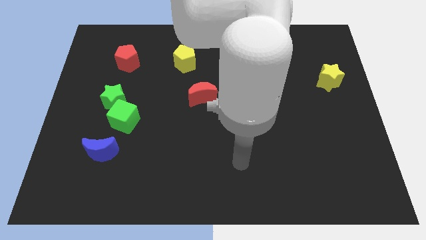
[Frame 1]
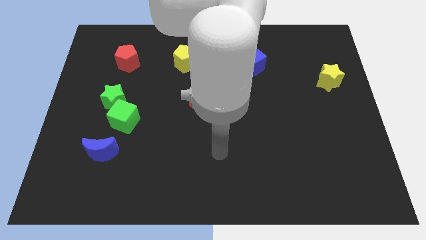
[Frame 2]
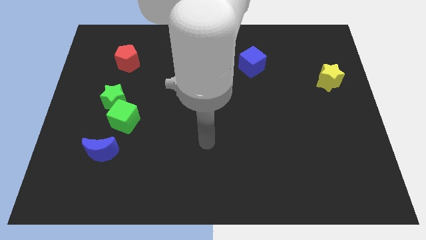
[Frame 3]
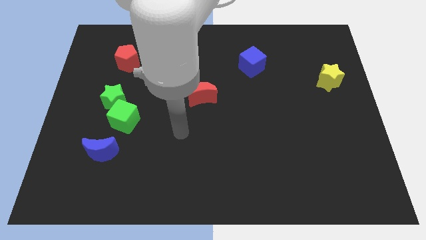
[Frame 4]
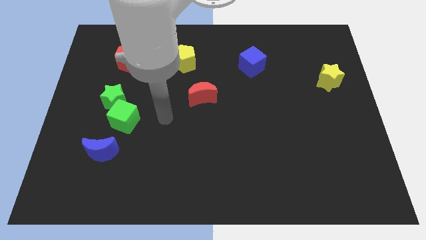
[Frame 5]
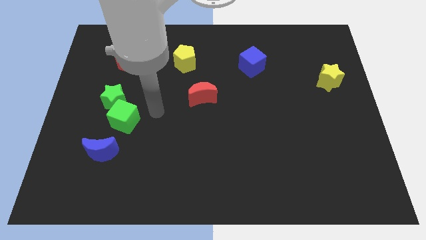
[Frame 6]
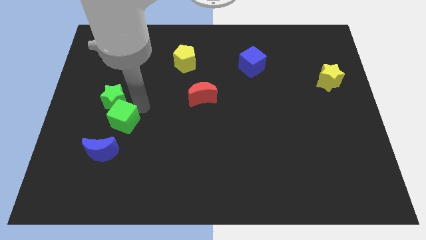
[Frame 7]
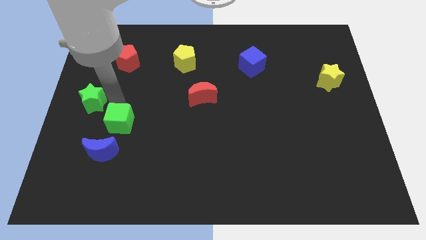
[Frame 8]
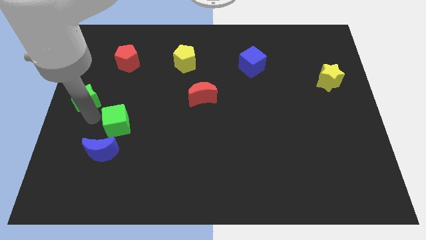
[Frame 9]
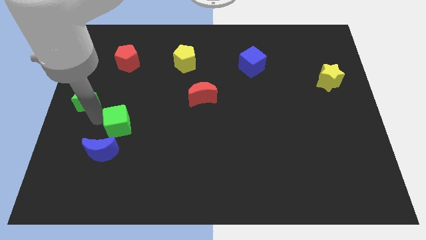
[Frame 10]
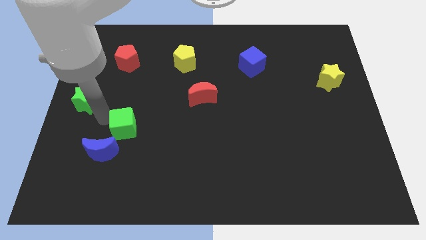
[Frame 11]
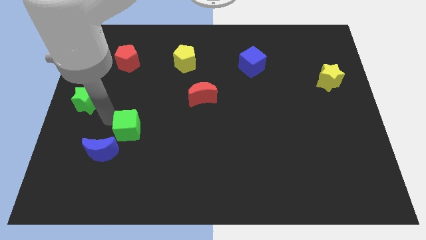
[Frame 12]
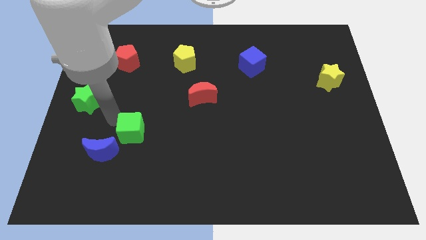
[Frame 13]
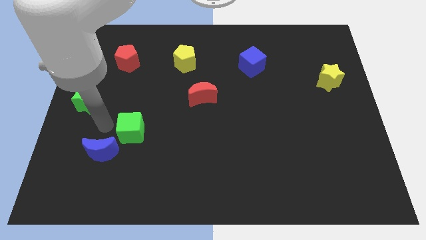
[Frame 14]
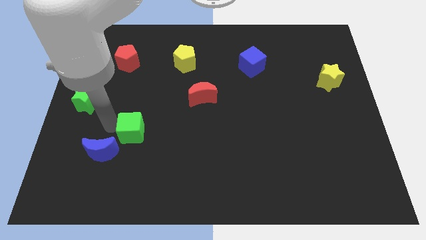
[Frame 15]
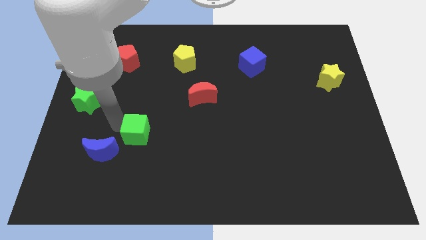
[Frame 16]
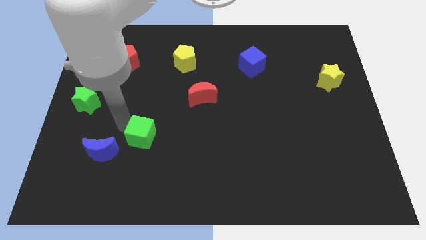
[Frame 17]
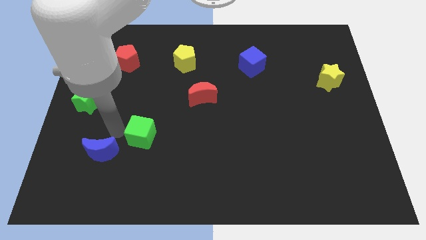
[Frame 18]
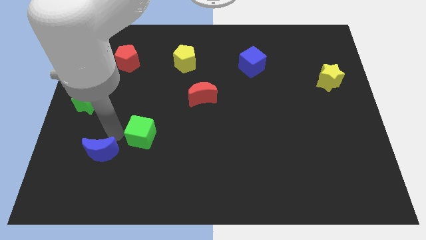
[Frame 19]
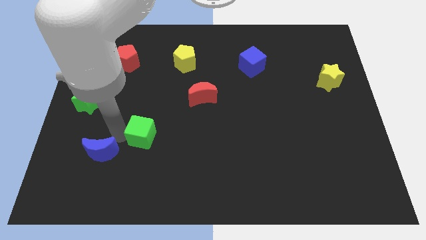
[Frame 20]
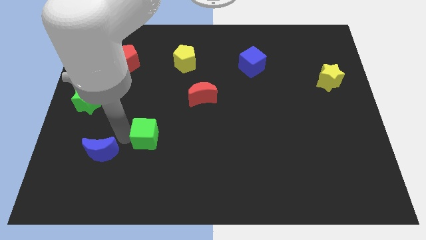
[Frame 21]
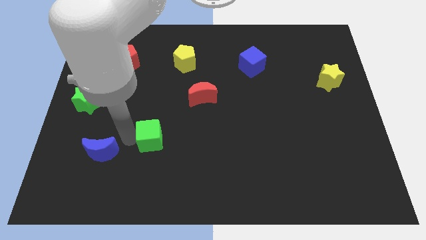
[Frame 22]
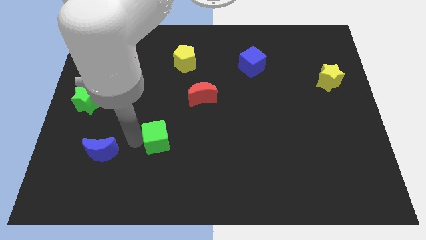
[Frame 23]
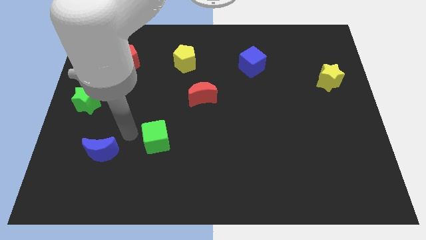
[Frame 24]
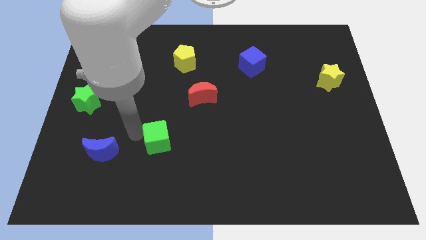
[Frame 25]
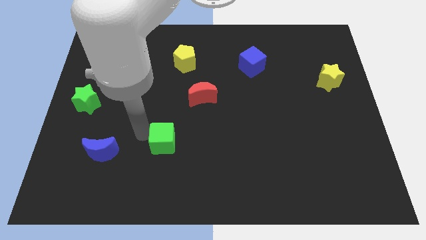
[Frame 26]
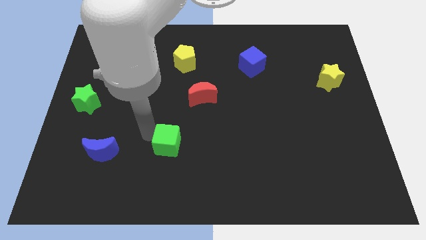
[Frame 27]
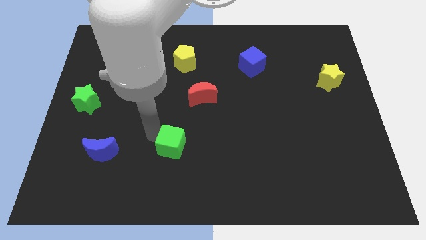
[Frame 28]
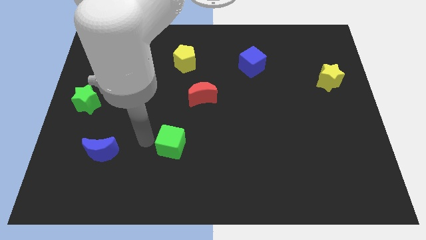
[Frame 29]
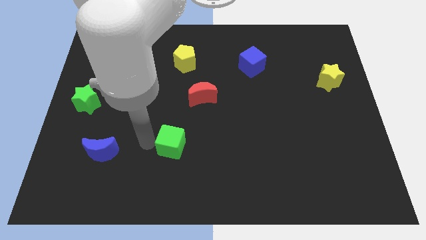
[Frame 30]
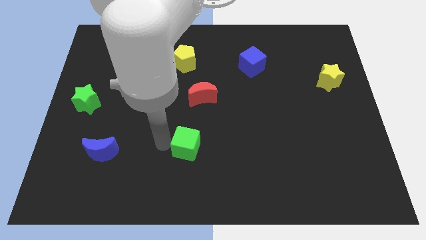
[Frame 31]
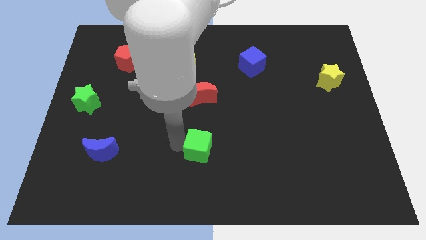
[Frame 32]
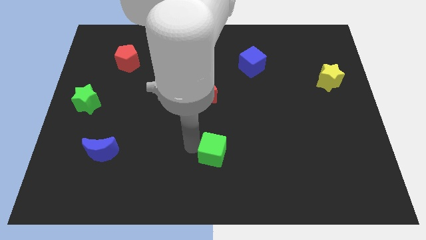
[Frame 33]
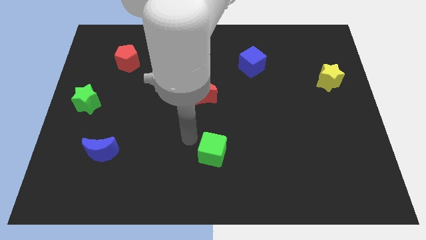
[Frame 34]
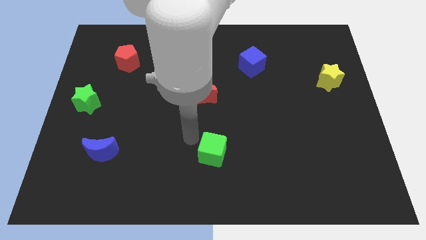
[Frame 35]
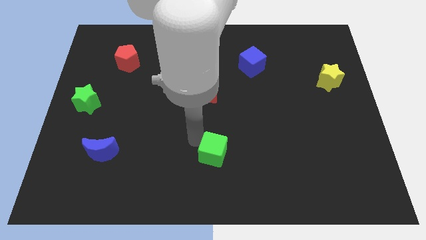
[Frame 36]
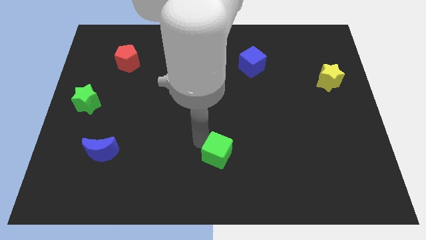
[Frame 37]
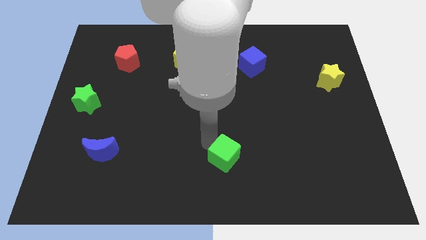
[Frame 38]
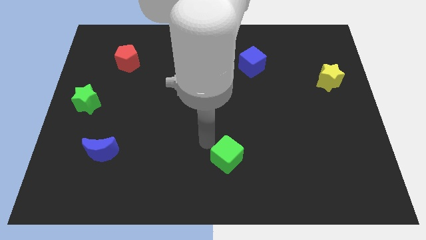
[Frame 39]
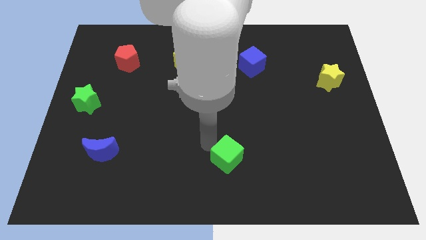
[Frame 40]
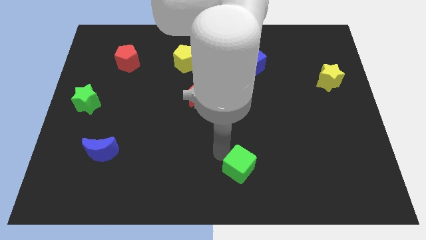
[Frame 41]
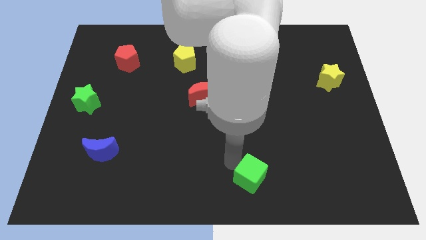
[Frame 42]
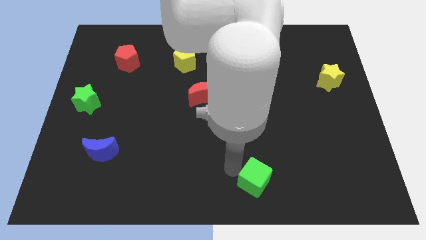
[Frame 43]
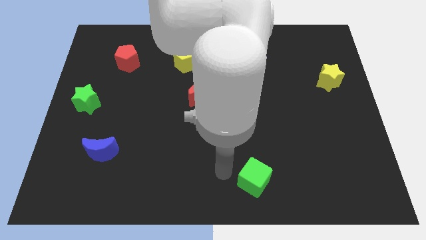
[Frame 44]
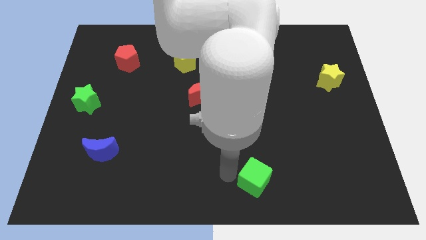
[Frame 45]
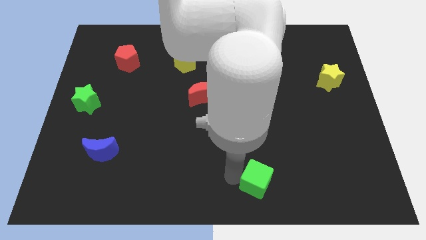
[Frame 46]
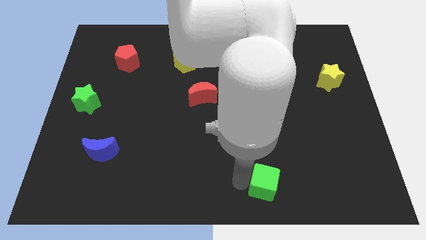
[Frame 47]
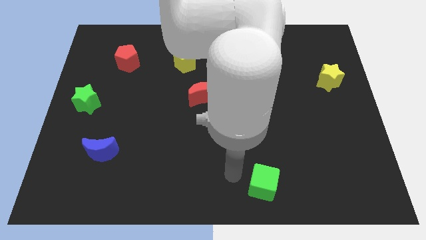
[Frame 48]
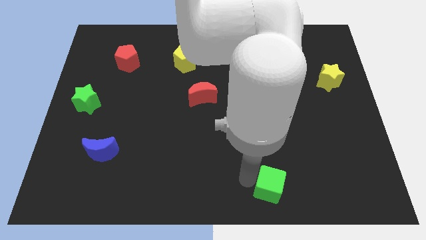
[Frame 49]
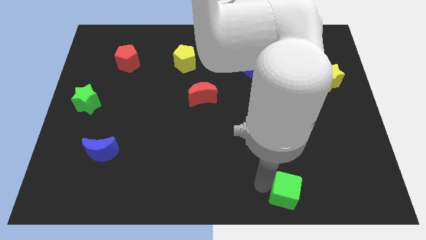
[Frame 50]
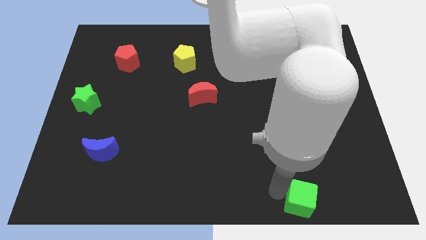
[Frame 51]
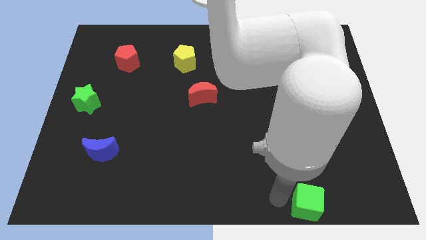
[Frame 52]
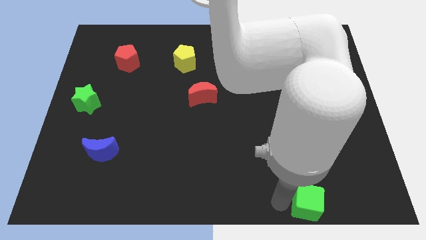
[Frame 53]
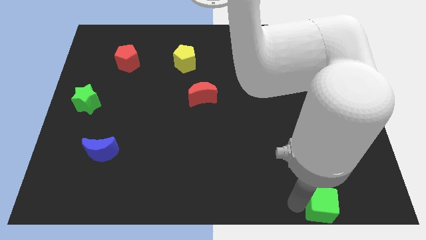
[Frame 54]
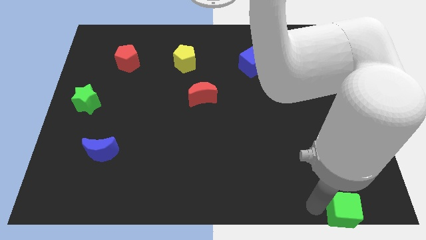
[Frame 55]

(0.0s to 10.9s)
move the green cube to the lower right corner

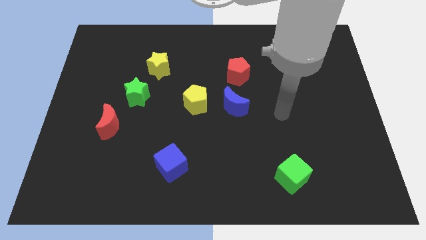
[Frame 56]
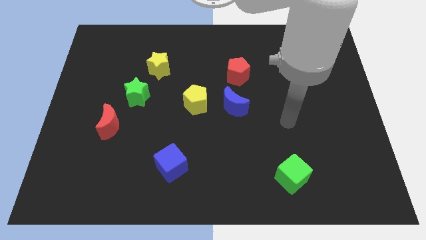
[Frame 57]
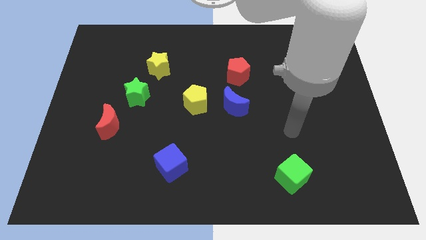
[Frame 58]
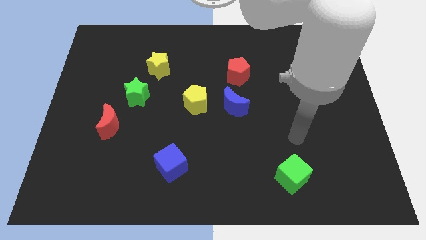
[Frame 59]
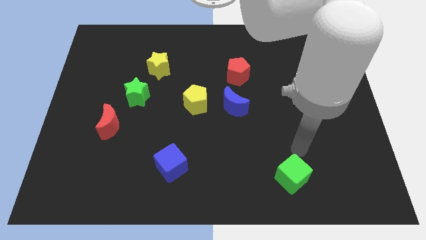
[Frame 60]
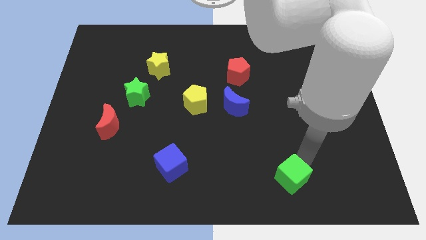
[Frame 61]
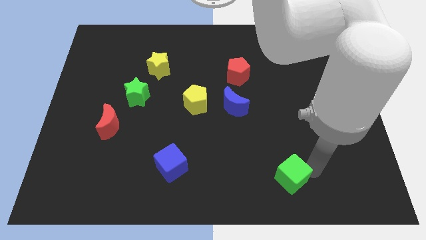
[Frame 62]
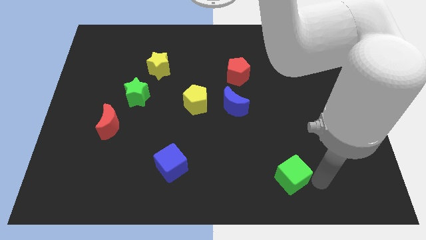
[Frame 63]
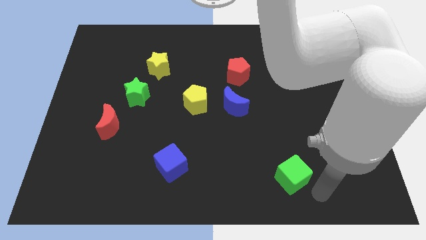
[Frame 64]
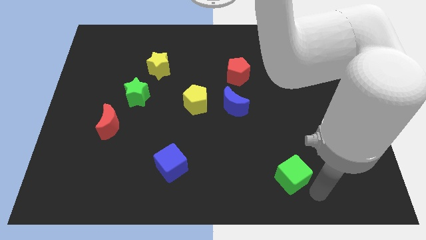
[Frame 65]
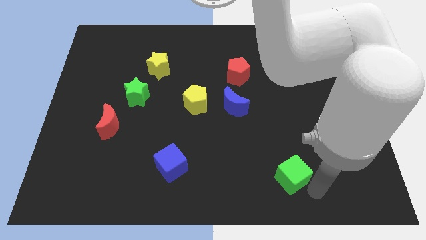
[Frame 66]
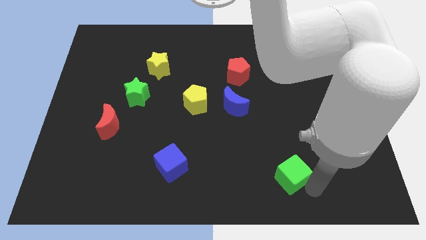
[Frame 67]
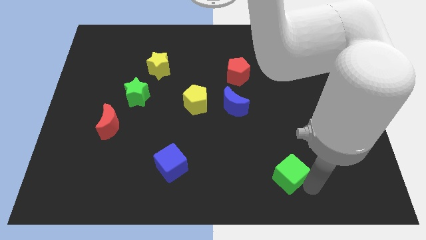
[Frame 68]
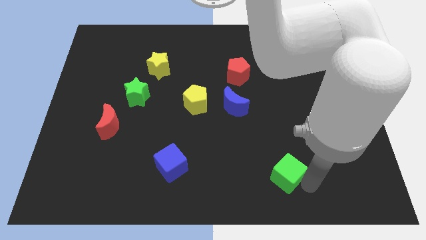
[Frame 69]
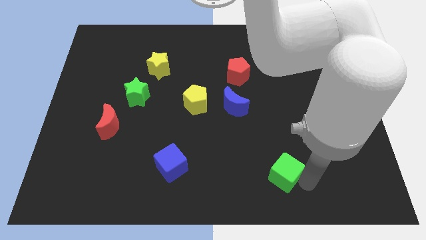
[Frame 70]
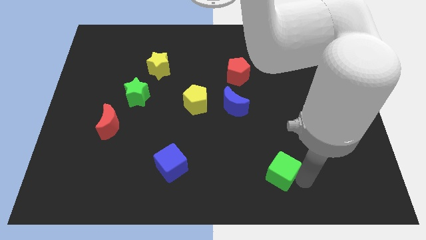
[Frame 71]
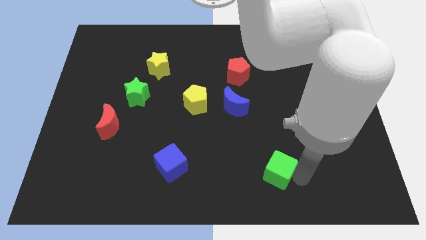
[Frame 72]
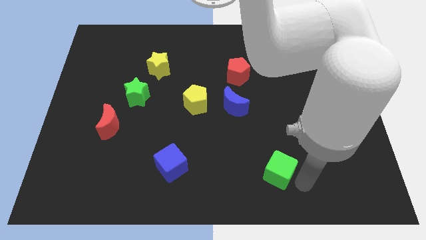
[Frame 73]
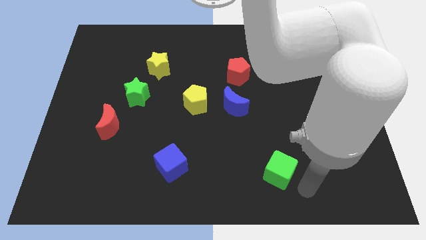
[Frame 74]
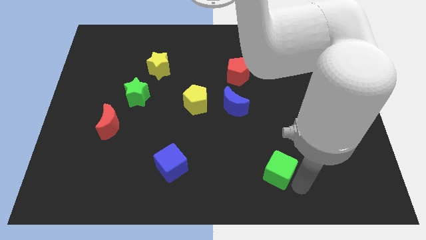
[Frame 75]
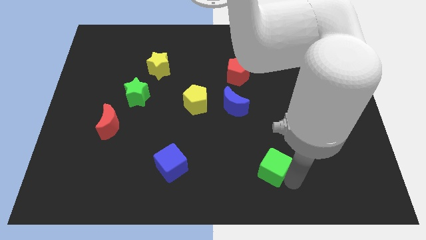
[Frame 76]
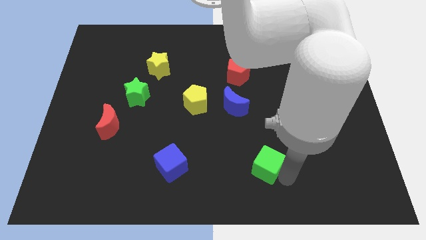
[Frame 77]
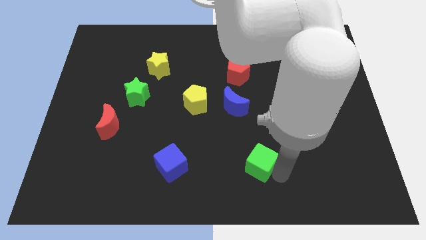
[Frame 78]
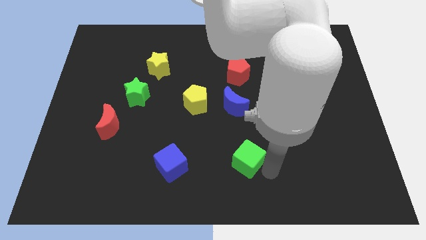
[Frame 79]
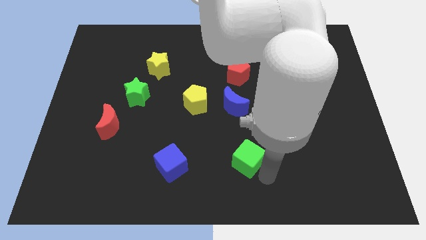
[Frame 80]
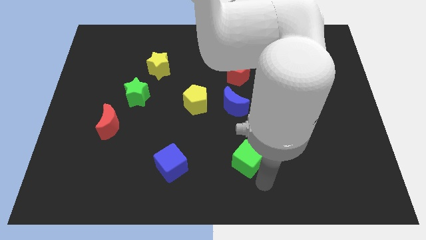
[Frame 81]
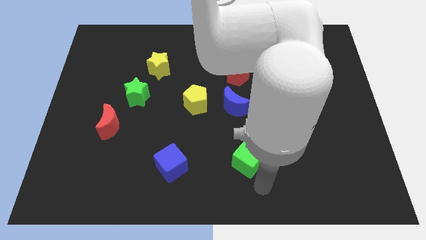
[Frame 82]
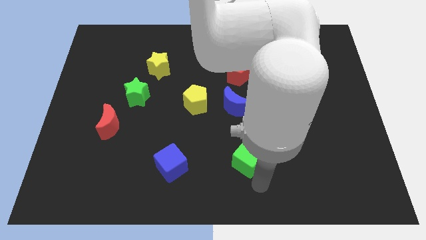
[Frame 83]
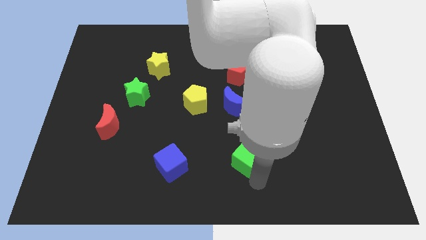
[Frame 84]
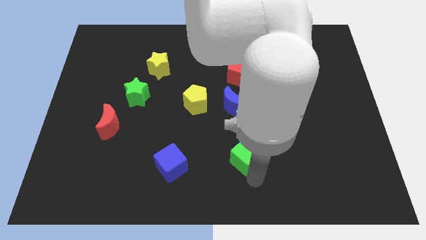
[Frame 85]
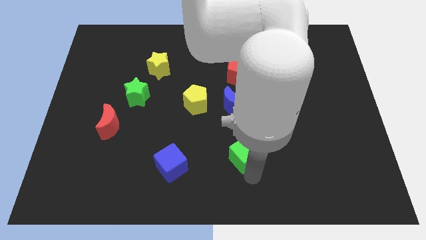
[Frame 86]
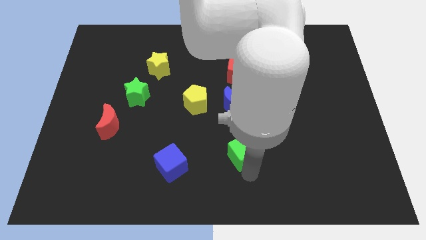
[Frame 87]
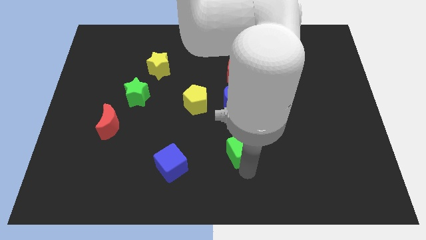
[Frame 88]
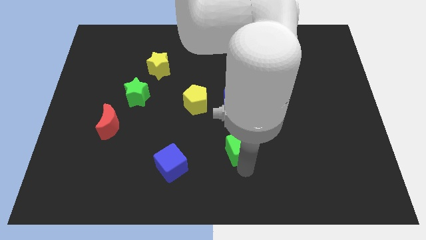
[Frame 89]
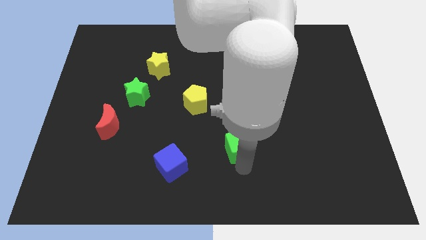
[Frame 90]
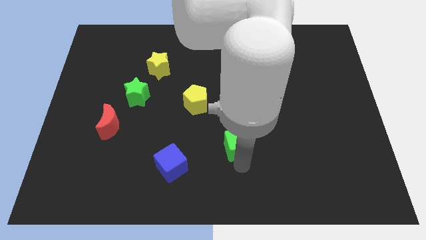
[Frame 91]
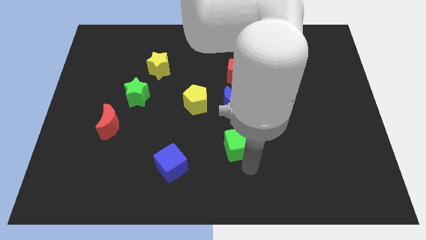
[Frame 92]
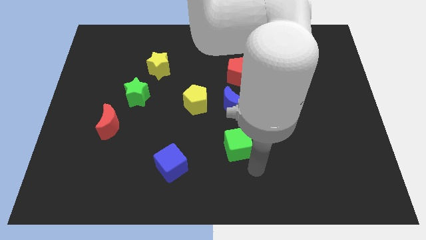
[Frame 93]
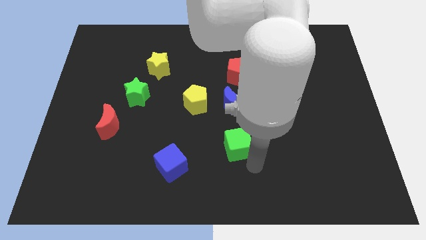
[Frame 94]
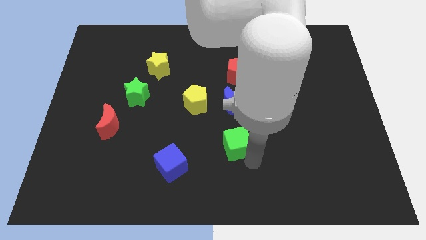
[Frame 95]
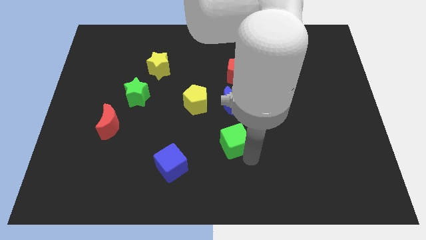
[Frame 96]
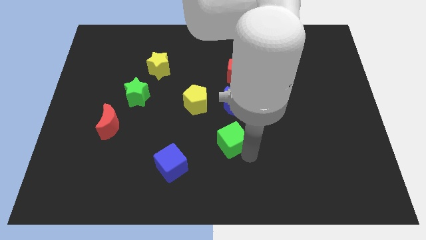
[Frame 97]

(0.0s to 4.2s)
move the green cube to the center
